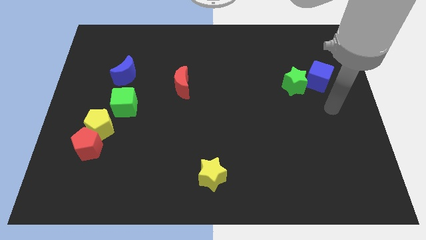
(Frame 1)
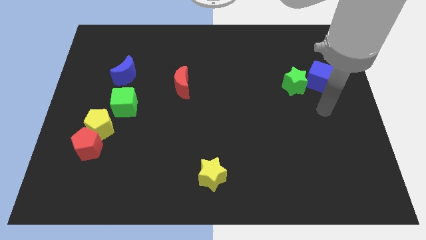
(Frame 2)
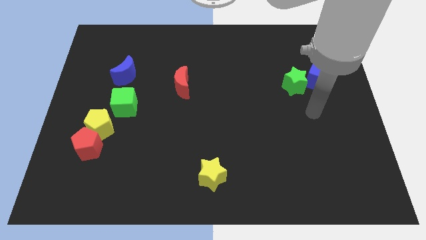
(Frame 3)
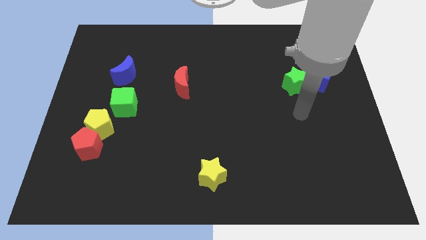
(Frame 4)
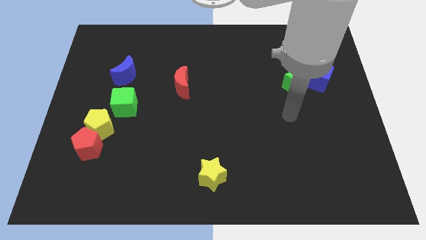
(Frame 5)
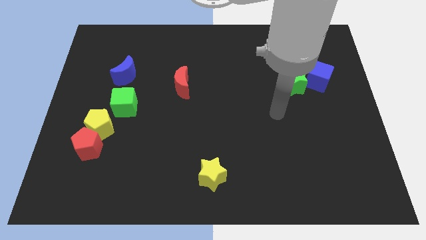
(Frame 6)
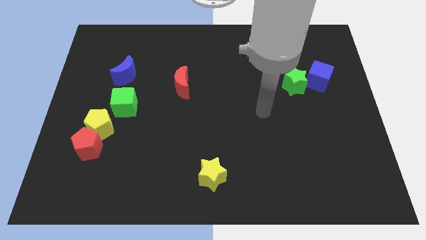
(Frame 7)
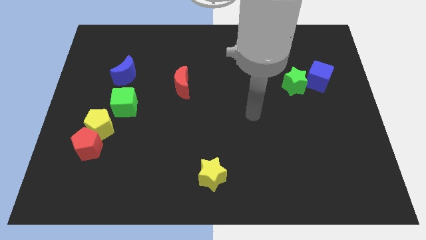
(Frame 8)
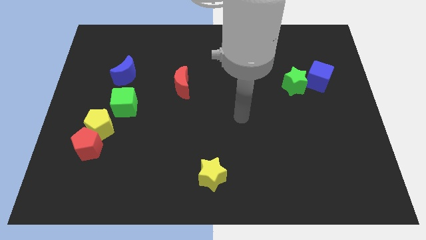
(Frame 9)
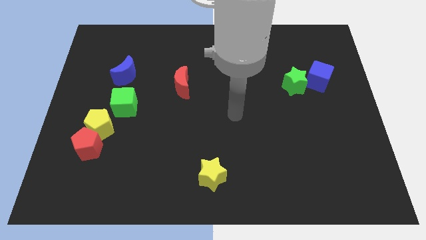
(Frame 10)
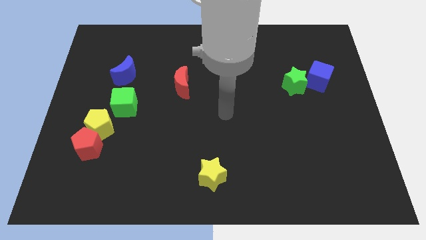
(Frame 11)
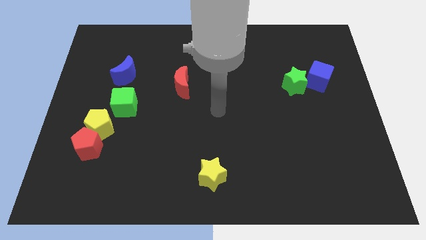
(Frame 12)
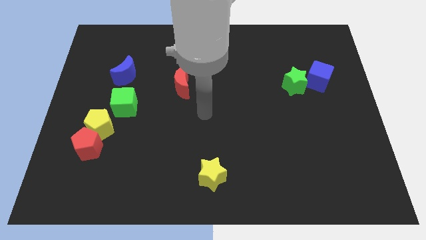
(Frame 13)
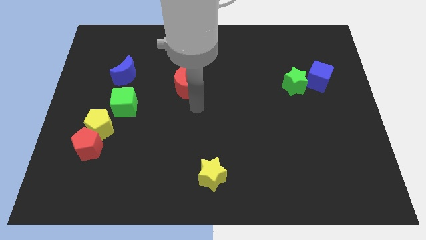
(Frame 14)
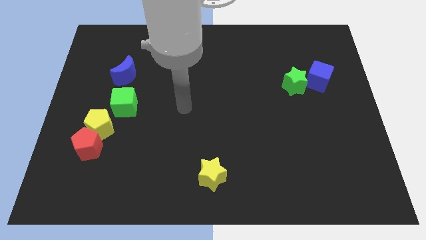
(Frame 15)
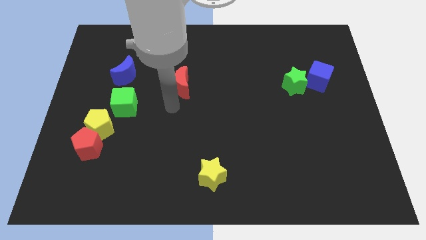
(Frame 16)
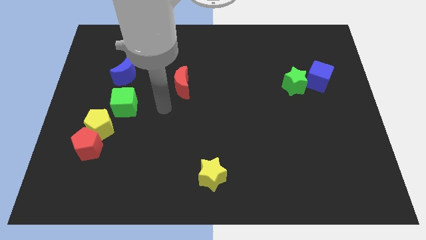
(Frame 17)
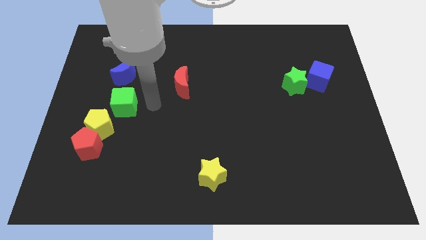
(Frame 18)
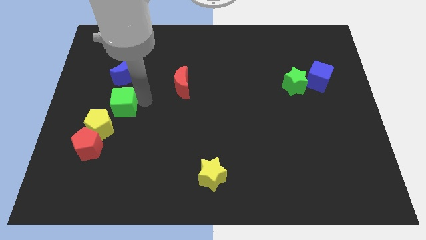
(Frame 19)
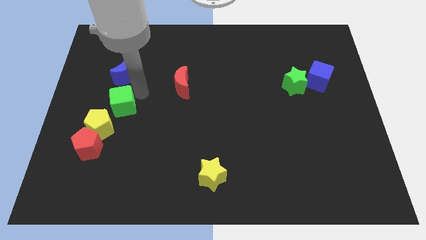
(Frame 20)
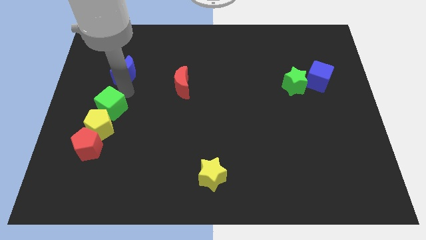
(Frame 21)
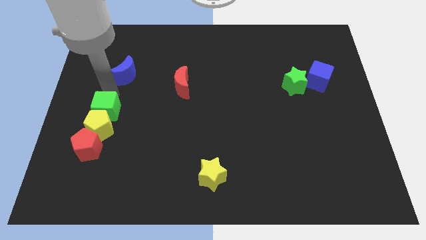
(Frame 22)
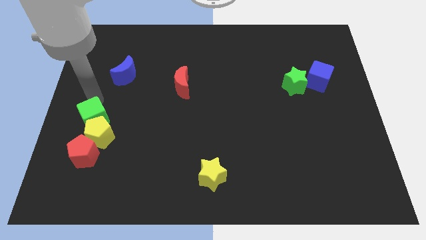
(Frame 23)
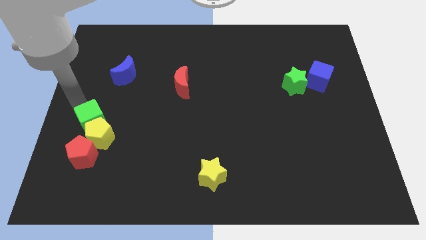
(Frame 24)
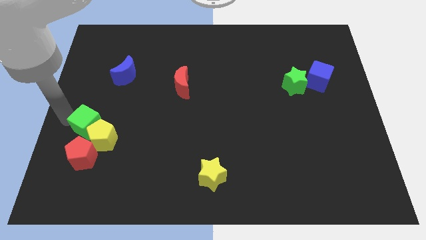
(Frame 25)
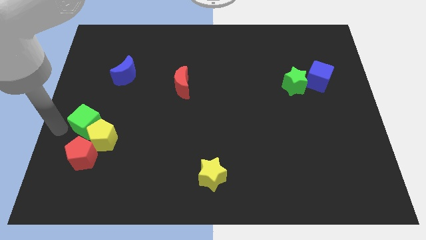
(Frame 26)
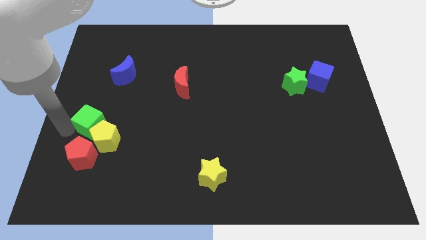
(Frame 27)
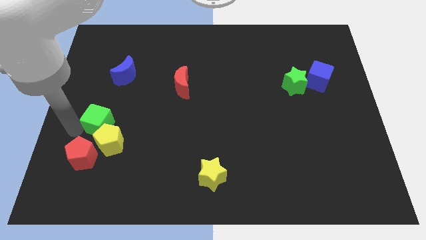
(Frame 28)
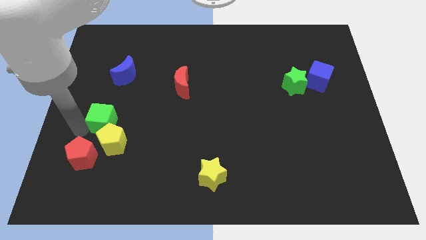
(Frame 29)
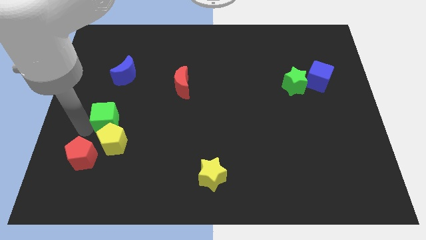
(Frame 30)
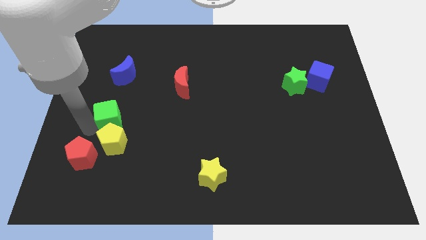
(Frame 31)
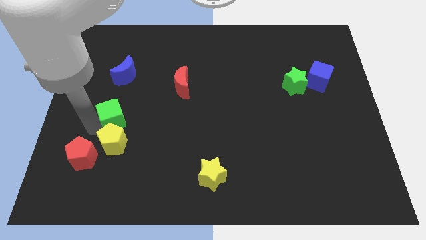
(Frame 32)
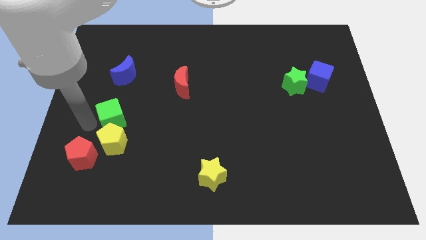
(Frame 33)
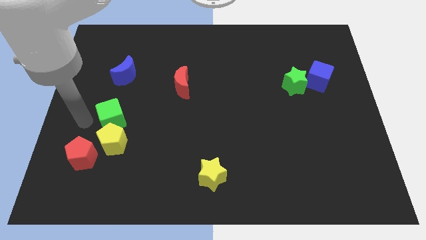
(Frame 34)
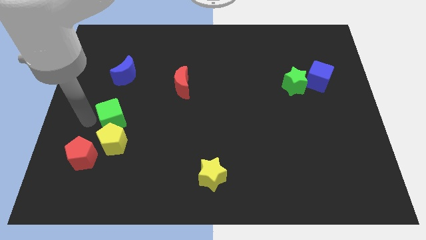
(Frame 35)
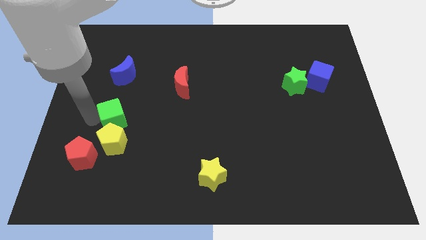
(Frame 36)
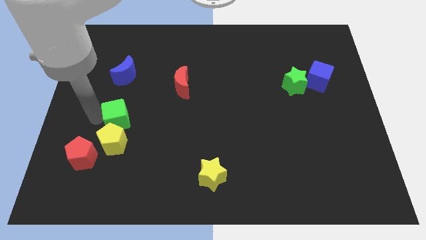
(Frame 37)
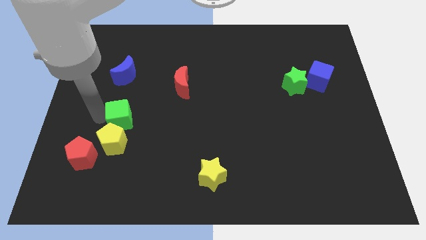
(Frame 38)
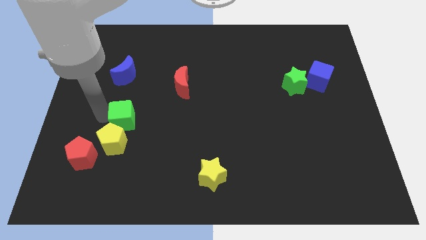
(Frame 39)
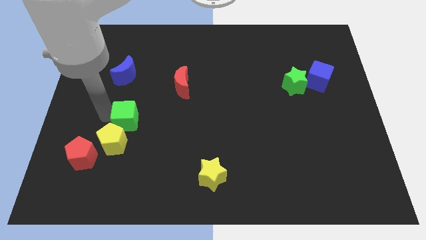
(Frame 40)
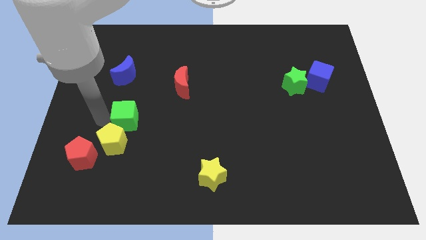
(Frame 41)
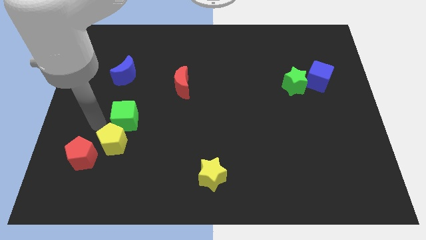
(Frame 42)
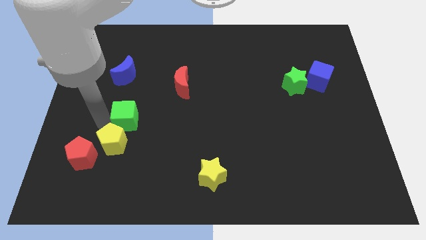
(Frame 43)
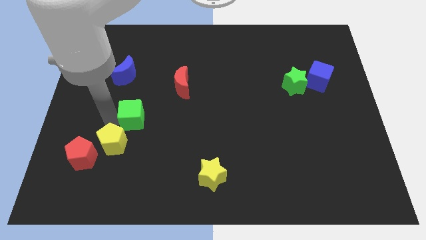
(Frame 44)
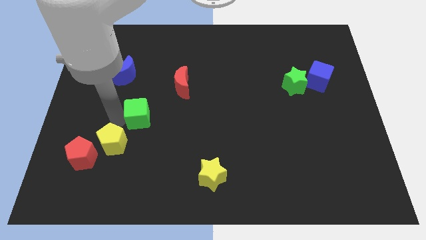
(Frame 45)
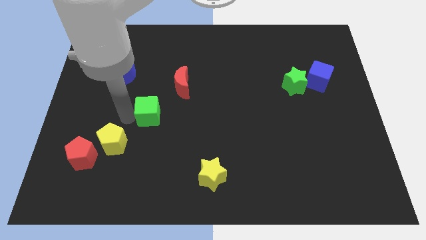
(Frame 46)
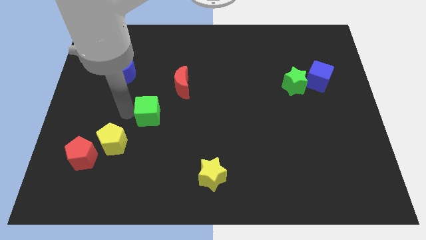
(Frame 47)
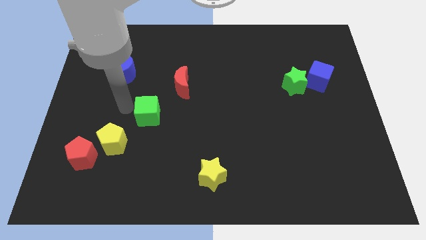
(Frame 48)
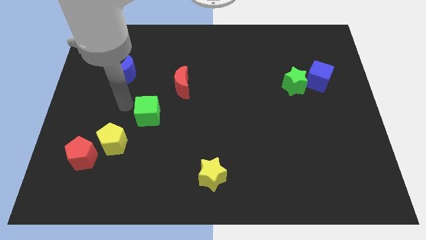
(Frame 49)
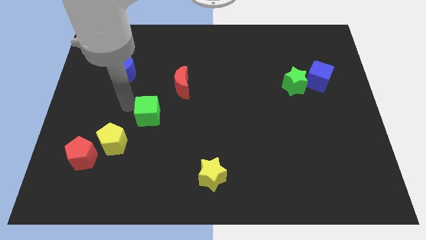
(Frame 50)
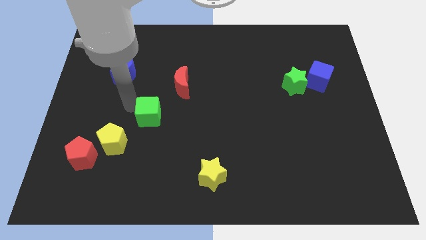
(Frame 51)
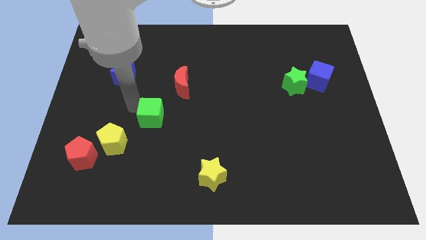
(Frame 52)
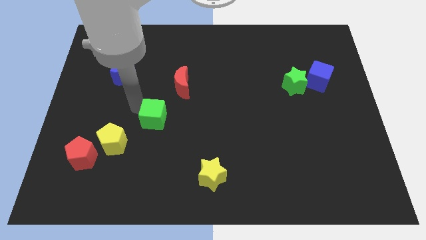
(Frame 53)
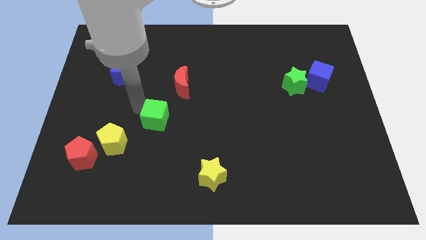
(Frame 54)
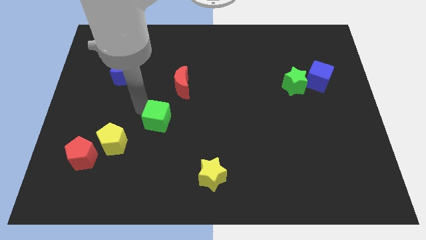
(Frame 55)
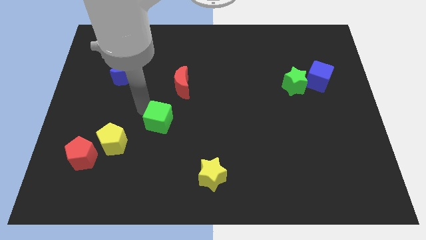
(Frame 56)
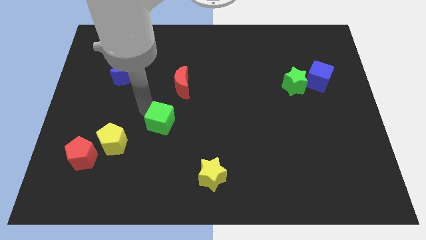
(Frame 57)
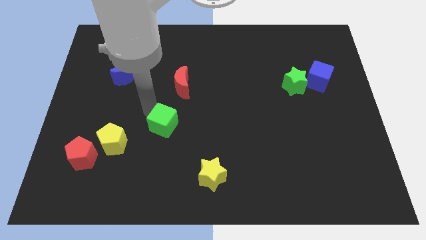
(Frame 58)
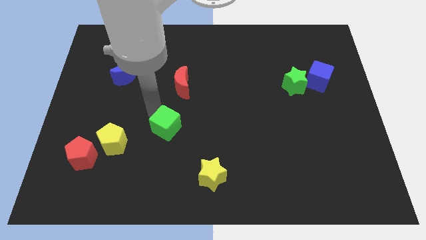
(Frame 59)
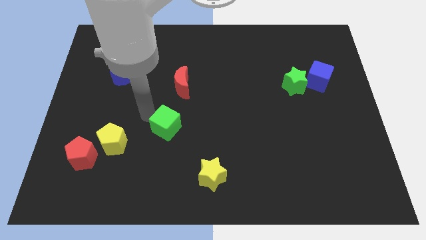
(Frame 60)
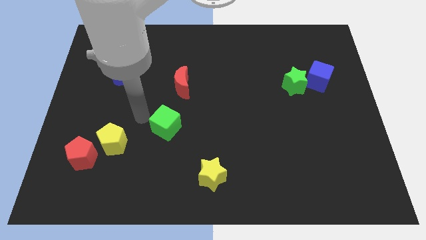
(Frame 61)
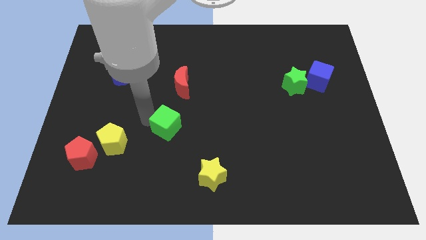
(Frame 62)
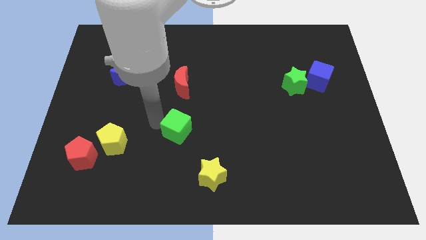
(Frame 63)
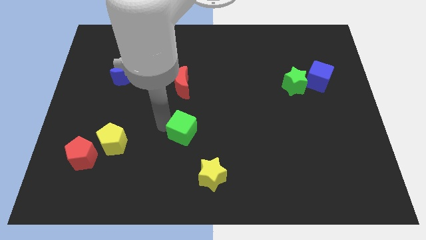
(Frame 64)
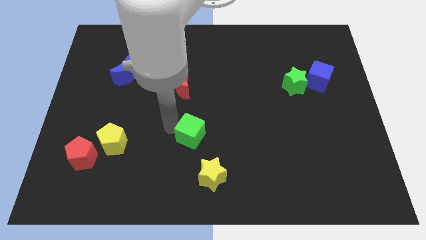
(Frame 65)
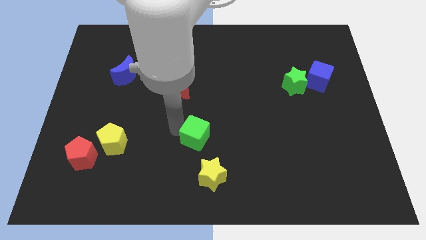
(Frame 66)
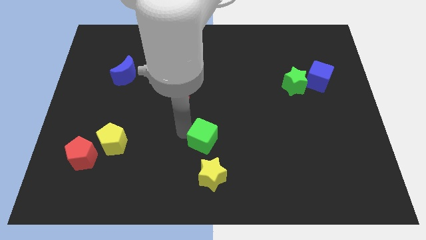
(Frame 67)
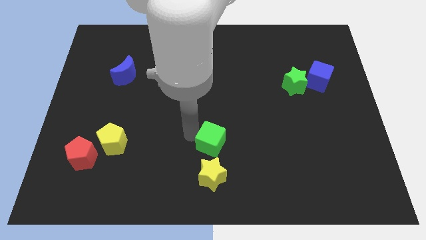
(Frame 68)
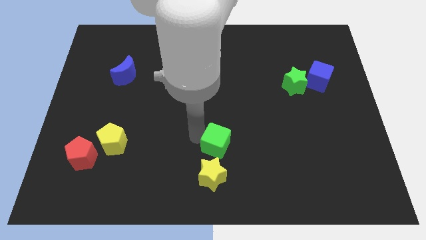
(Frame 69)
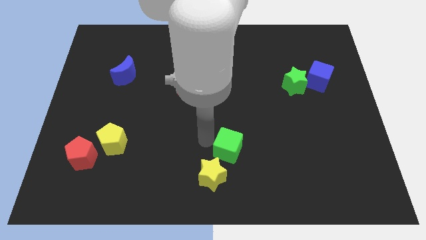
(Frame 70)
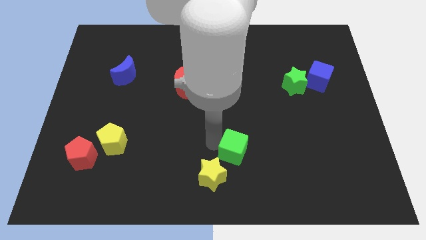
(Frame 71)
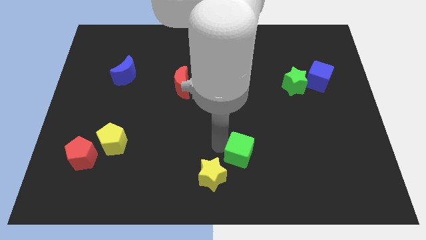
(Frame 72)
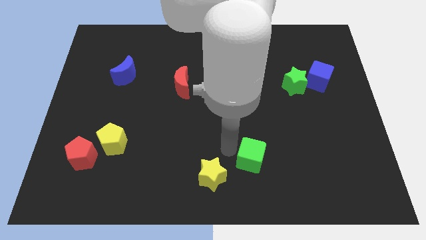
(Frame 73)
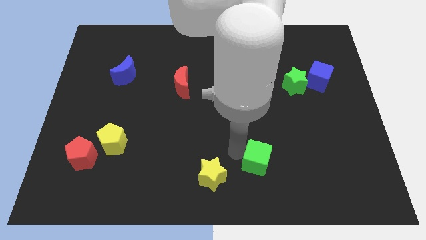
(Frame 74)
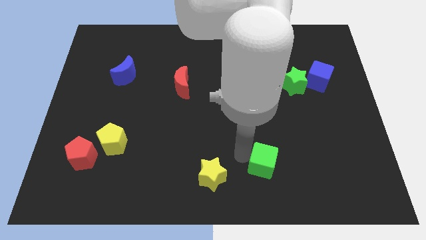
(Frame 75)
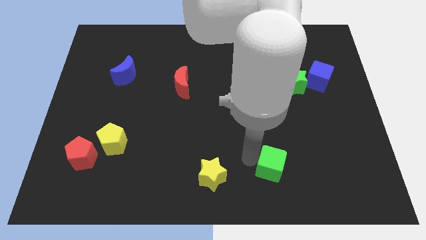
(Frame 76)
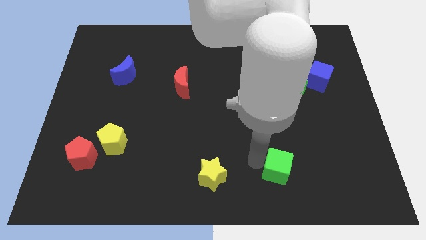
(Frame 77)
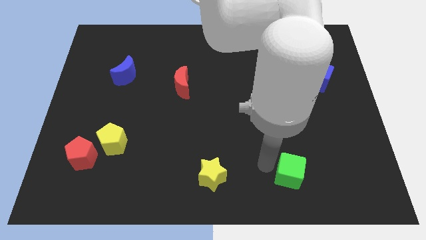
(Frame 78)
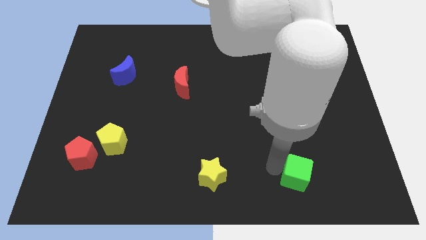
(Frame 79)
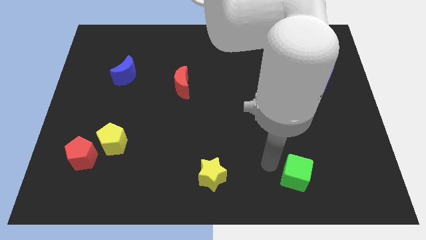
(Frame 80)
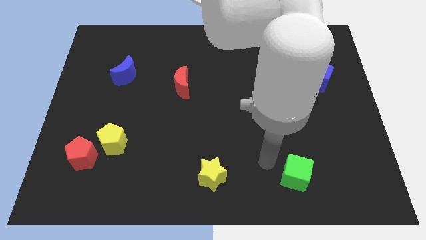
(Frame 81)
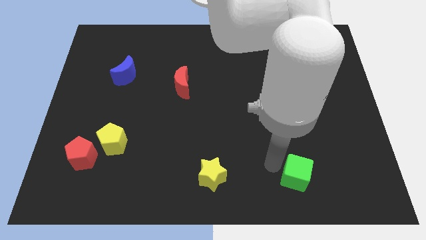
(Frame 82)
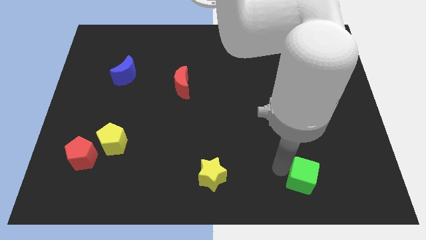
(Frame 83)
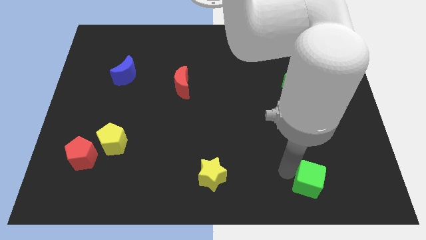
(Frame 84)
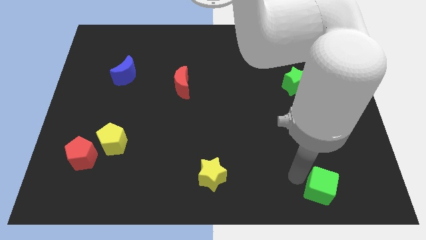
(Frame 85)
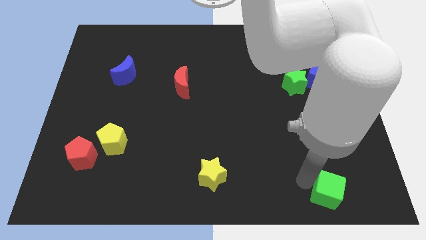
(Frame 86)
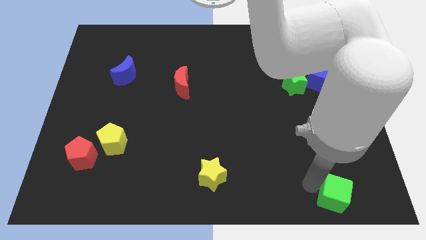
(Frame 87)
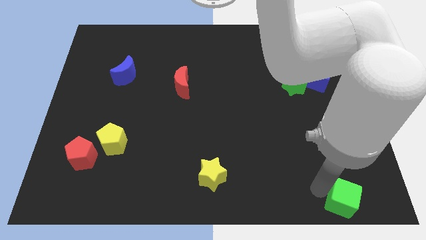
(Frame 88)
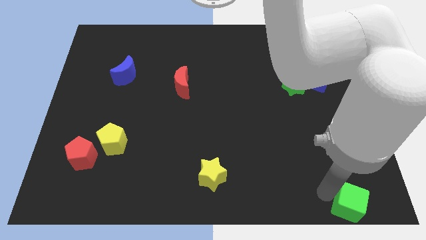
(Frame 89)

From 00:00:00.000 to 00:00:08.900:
move the green cube to the bottom right
